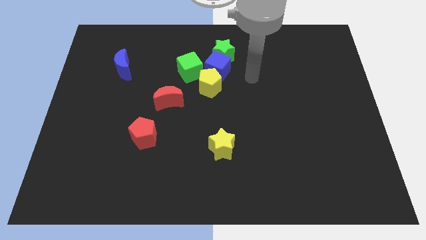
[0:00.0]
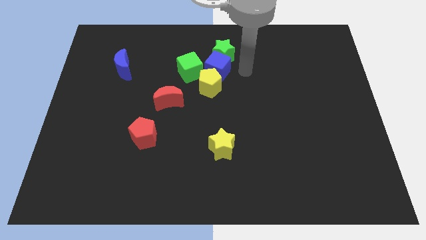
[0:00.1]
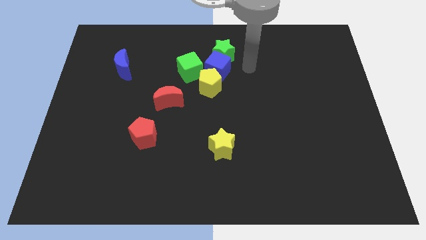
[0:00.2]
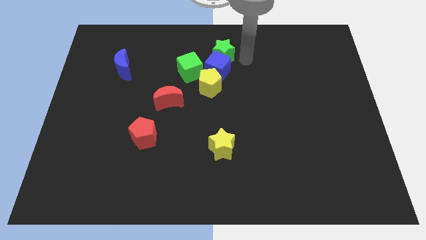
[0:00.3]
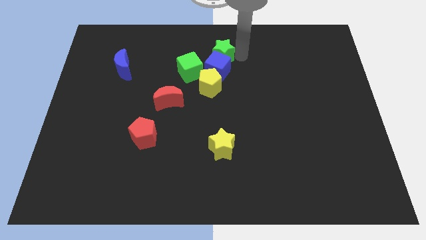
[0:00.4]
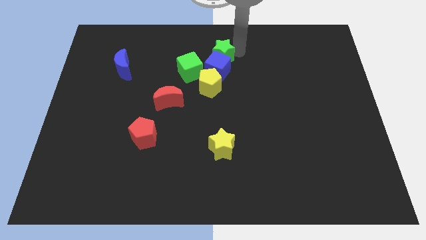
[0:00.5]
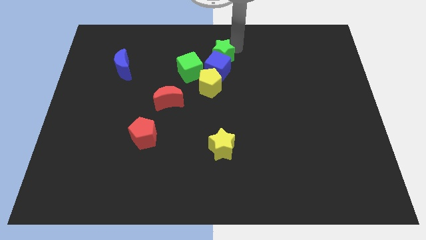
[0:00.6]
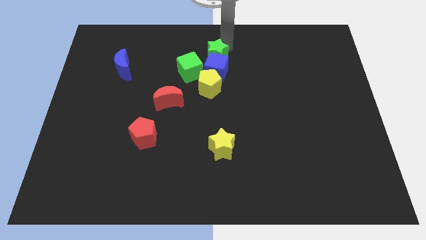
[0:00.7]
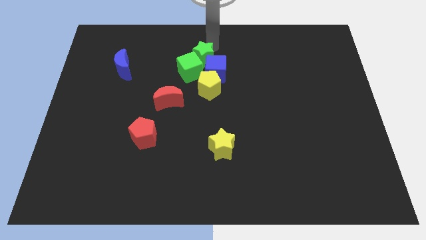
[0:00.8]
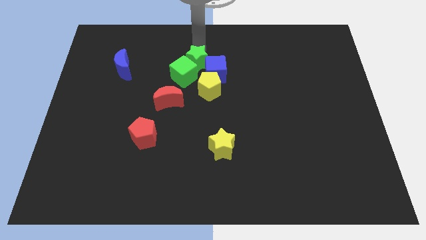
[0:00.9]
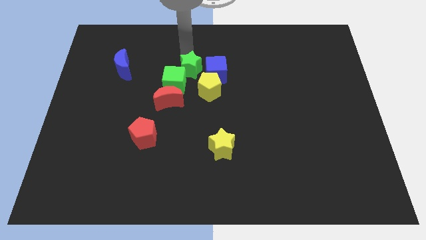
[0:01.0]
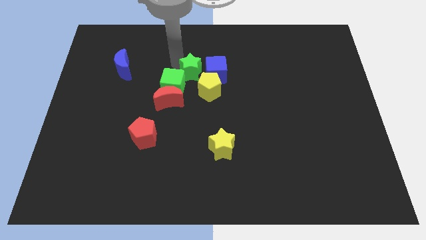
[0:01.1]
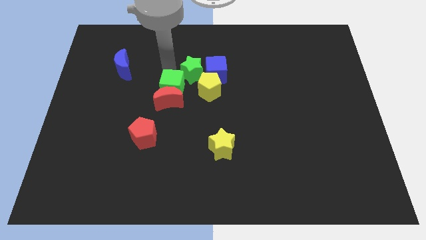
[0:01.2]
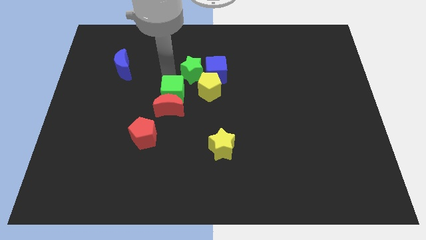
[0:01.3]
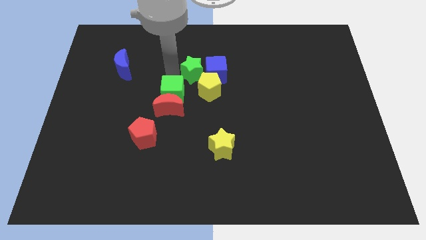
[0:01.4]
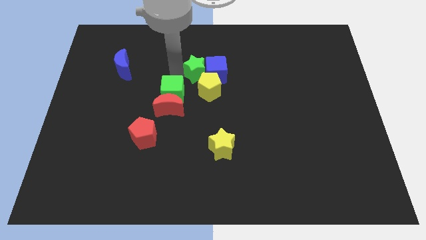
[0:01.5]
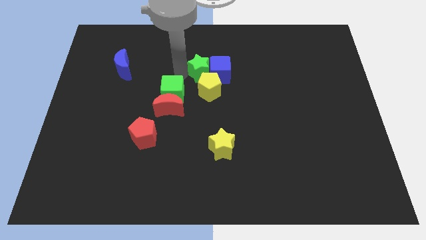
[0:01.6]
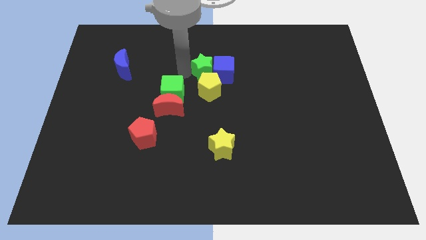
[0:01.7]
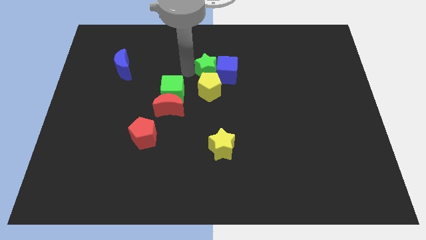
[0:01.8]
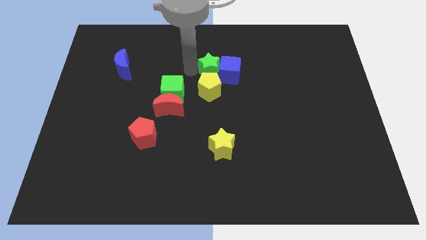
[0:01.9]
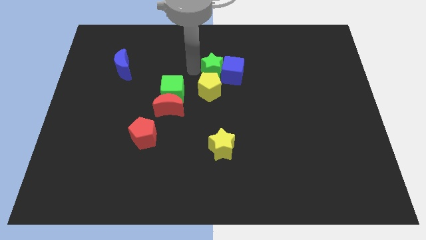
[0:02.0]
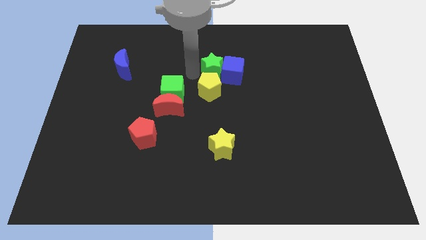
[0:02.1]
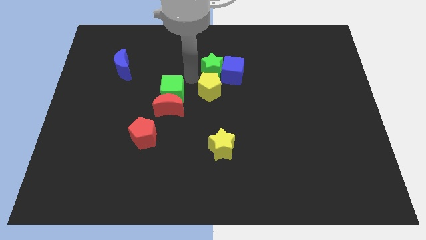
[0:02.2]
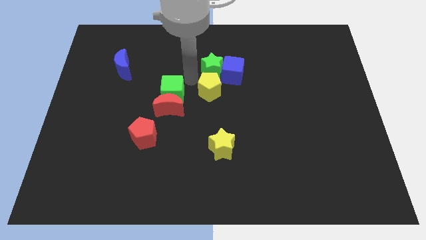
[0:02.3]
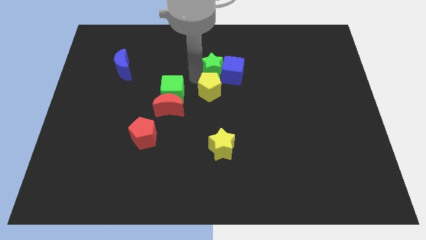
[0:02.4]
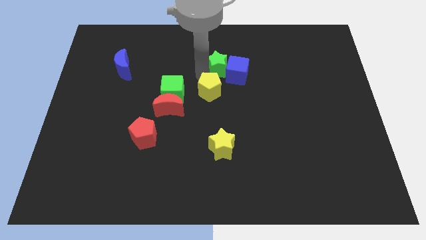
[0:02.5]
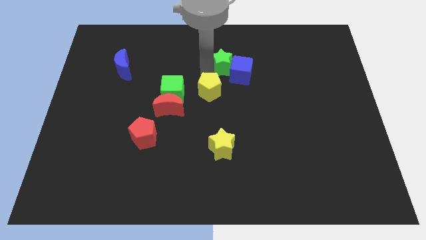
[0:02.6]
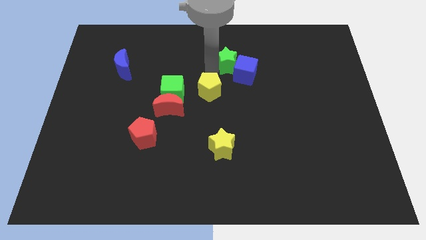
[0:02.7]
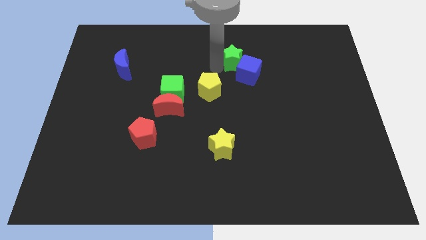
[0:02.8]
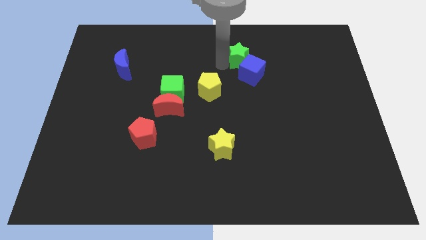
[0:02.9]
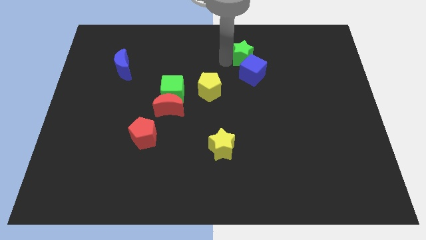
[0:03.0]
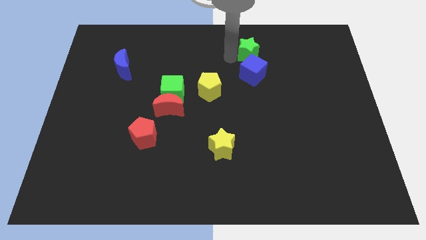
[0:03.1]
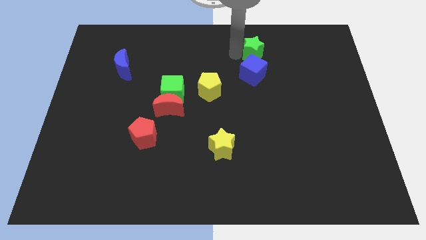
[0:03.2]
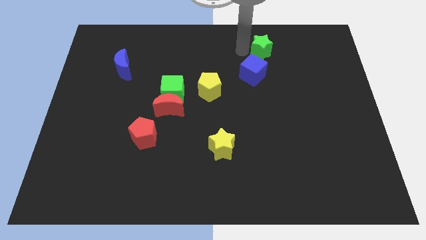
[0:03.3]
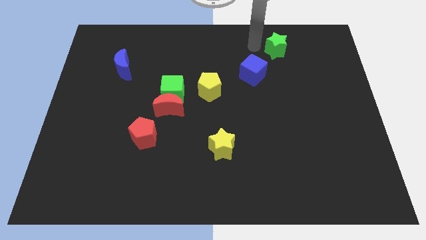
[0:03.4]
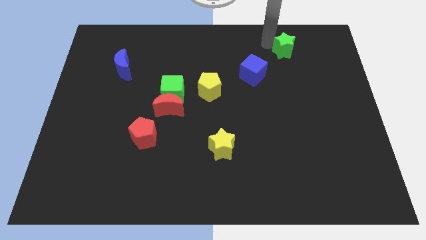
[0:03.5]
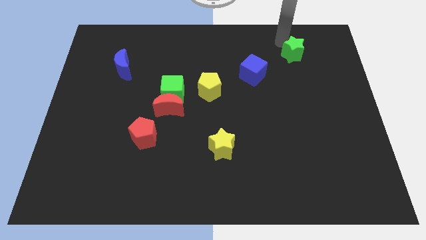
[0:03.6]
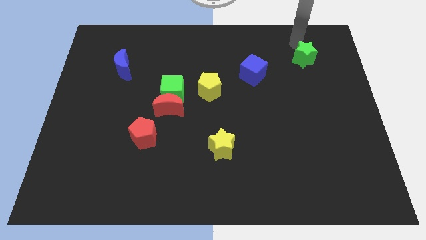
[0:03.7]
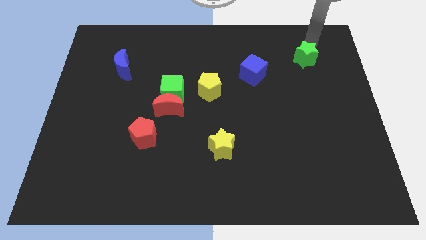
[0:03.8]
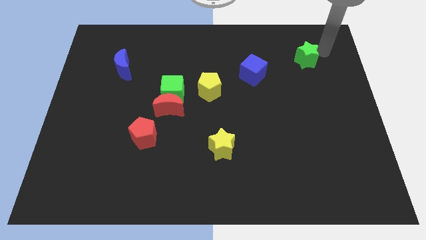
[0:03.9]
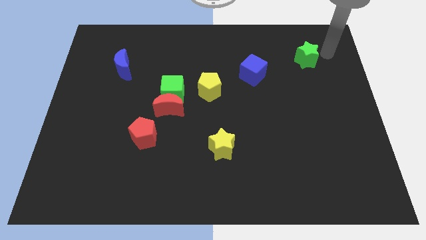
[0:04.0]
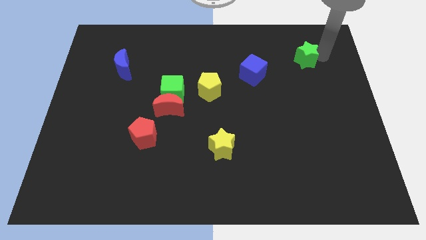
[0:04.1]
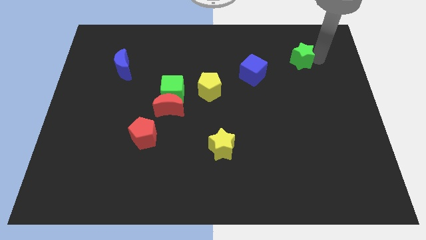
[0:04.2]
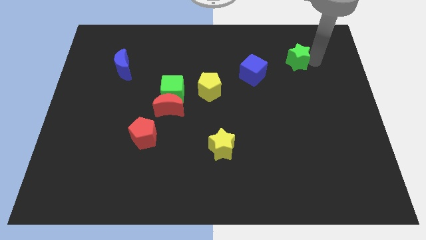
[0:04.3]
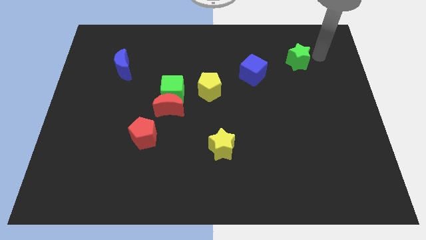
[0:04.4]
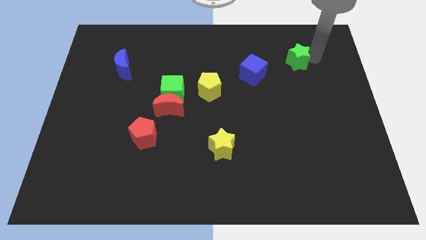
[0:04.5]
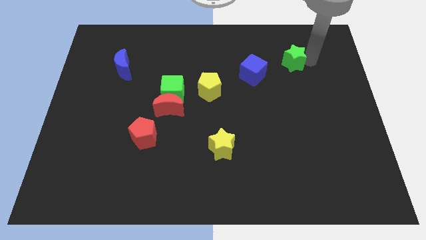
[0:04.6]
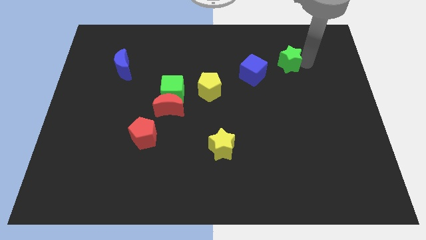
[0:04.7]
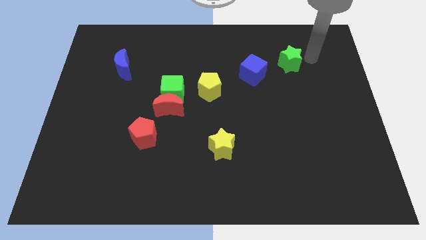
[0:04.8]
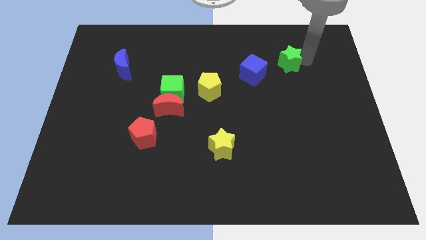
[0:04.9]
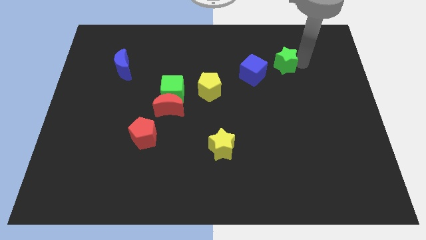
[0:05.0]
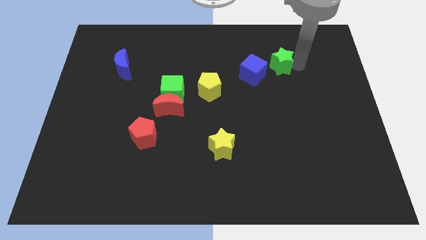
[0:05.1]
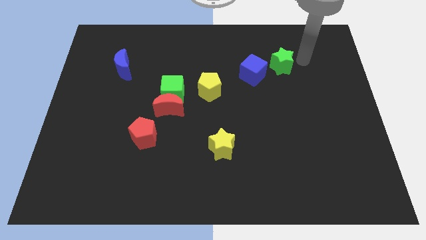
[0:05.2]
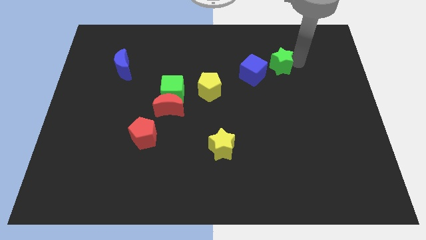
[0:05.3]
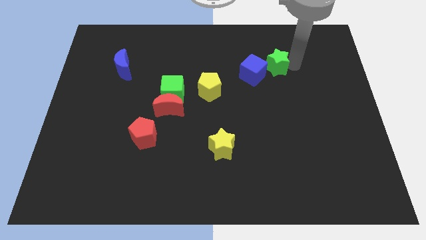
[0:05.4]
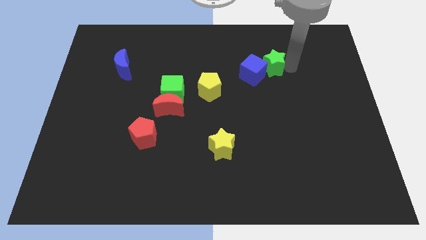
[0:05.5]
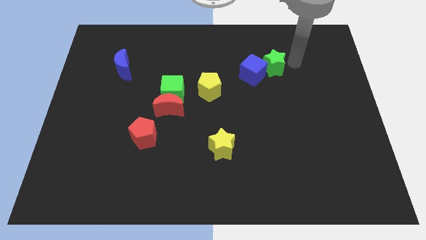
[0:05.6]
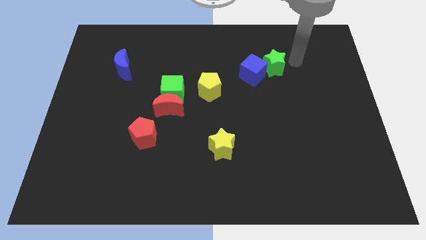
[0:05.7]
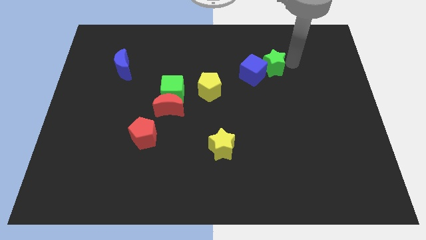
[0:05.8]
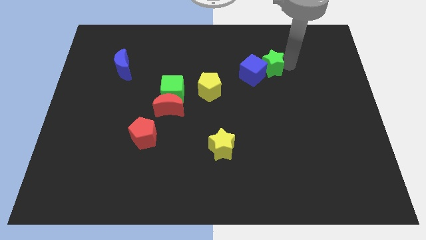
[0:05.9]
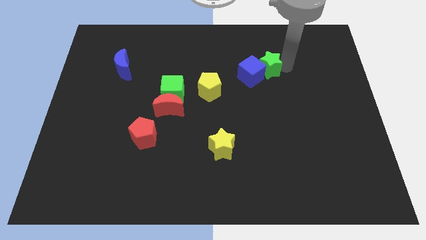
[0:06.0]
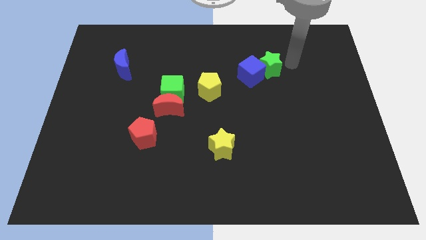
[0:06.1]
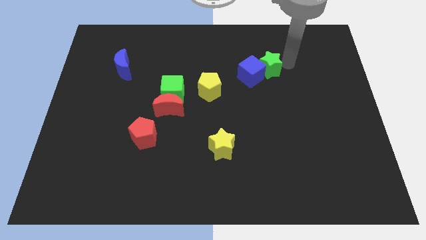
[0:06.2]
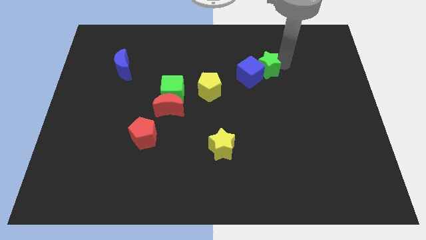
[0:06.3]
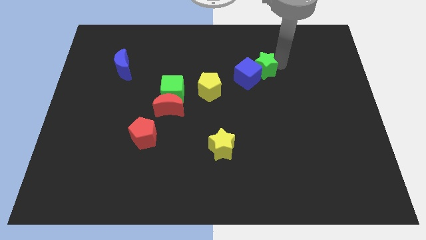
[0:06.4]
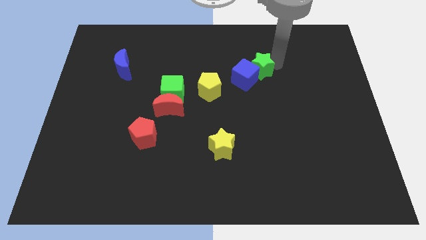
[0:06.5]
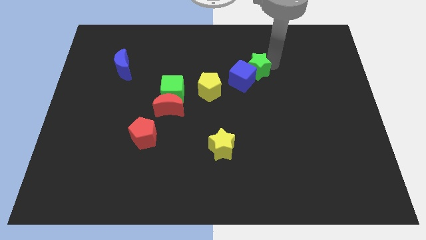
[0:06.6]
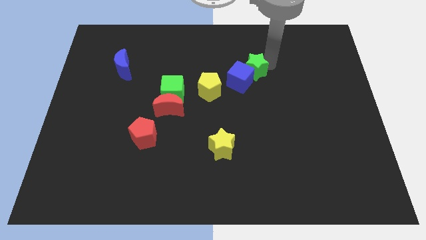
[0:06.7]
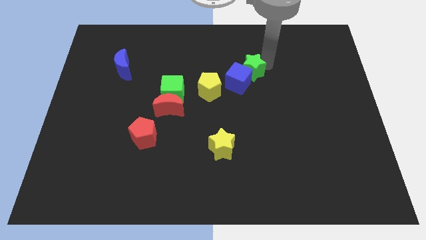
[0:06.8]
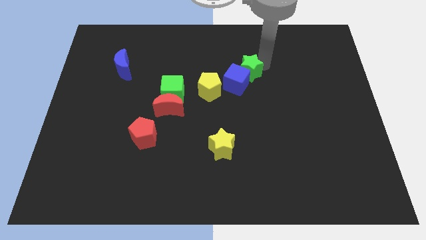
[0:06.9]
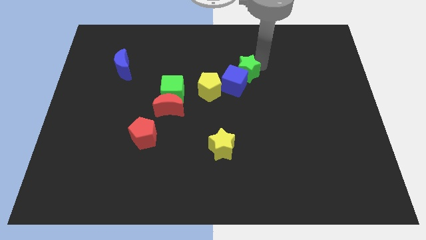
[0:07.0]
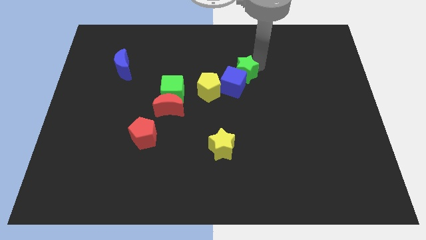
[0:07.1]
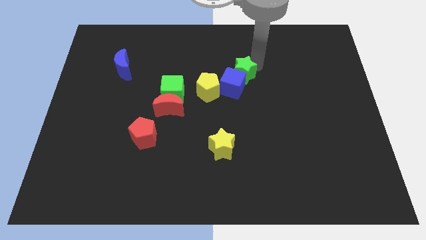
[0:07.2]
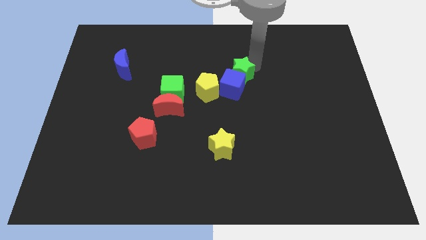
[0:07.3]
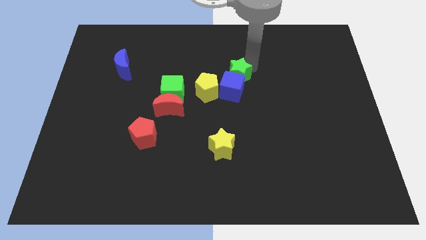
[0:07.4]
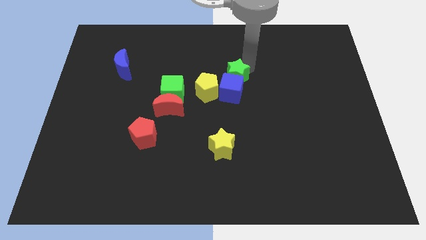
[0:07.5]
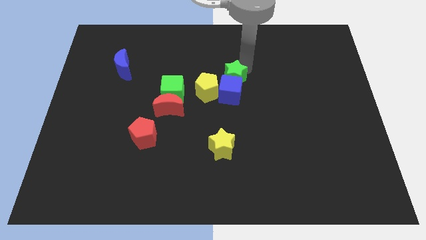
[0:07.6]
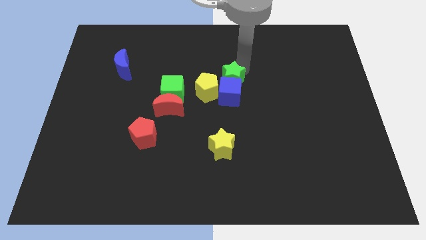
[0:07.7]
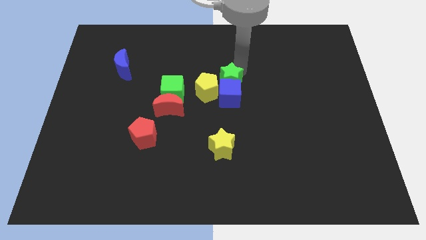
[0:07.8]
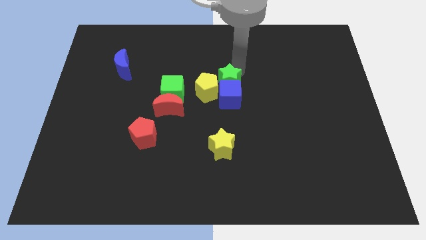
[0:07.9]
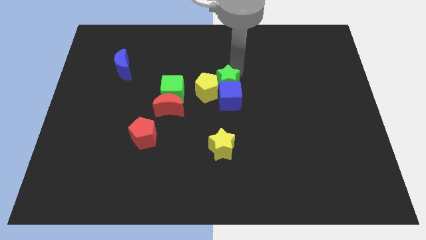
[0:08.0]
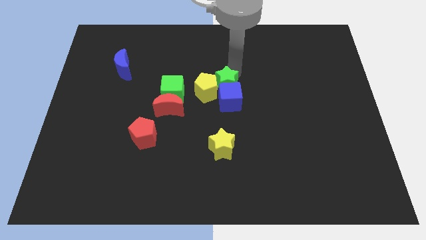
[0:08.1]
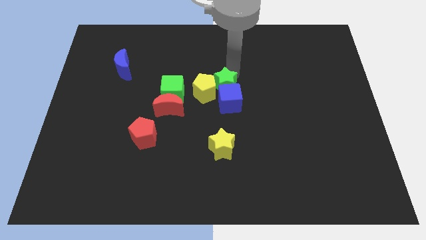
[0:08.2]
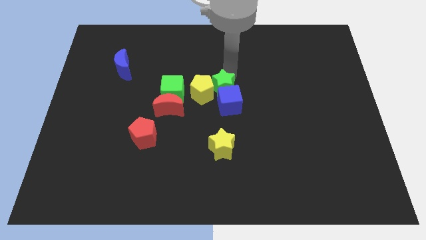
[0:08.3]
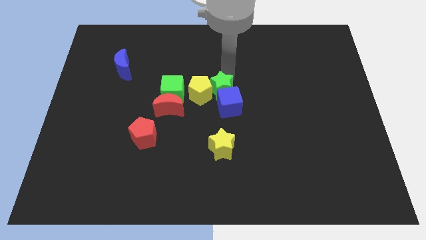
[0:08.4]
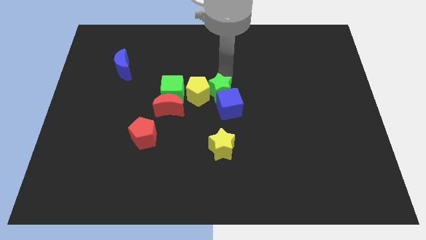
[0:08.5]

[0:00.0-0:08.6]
move the green star above the yellow star
